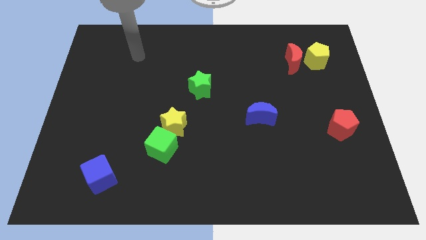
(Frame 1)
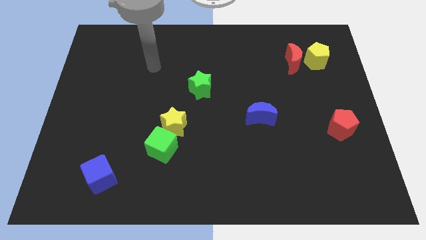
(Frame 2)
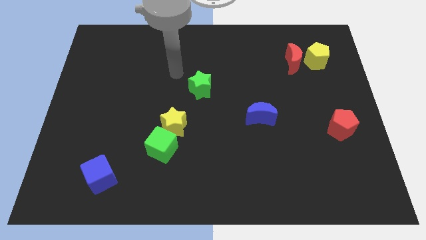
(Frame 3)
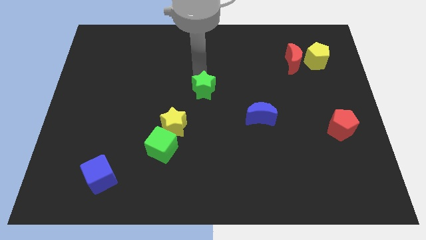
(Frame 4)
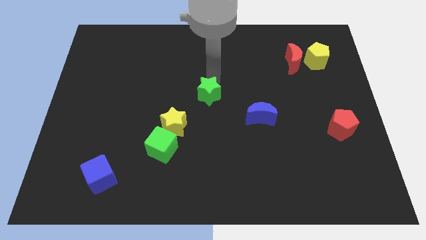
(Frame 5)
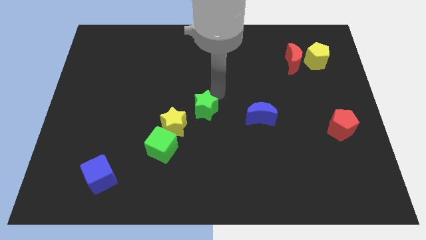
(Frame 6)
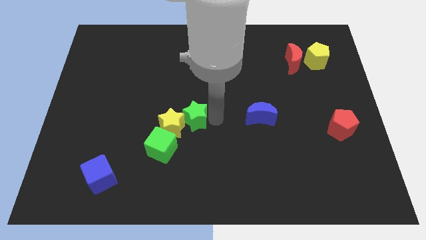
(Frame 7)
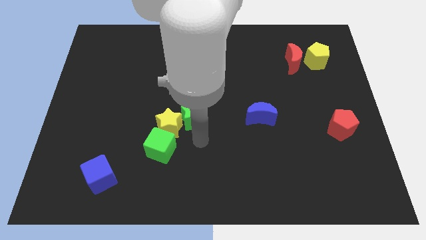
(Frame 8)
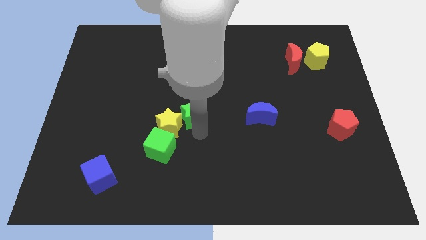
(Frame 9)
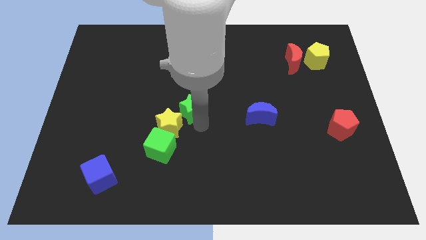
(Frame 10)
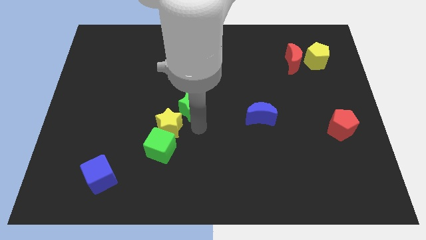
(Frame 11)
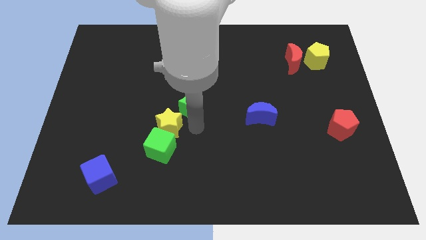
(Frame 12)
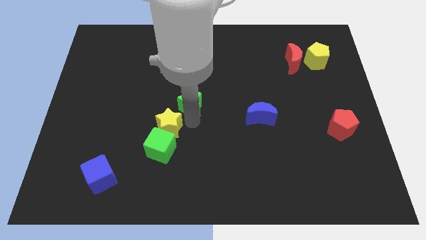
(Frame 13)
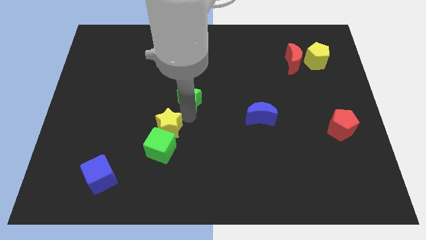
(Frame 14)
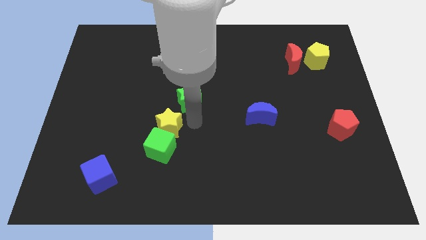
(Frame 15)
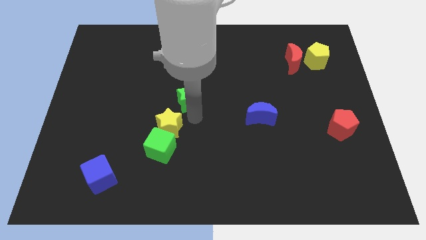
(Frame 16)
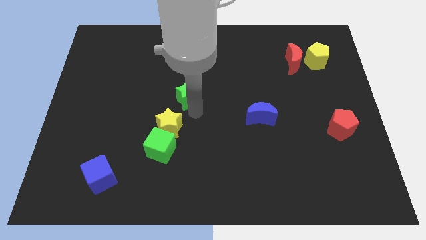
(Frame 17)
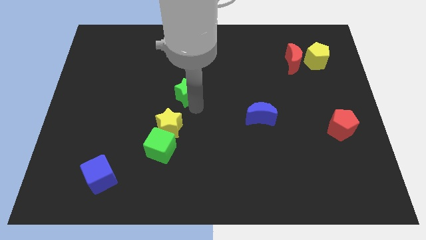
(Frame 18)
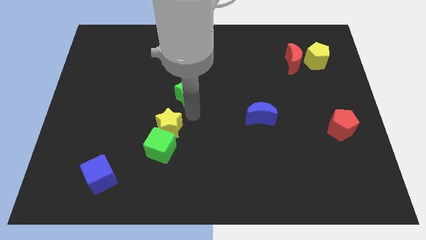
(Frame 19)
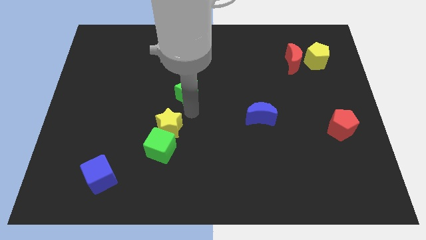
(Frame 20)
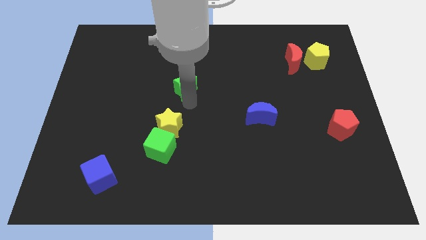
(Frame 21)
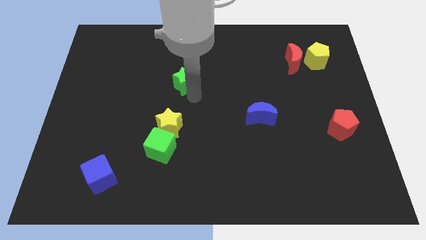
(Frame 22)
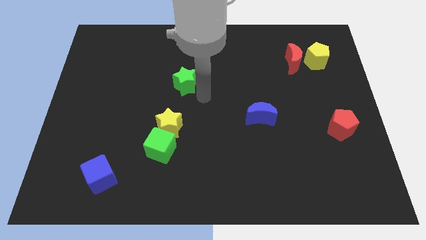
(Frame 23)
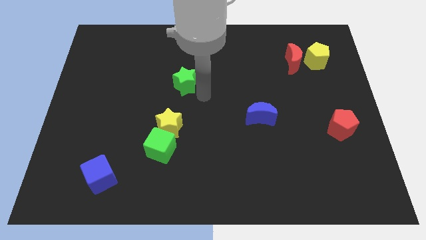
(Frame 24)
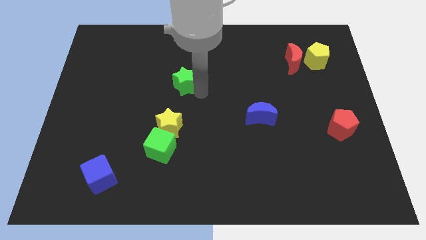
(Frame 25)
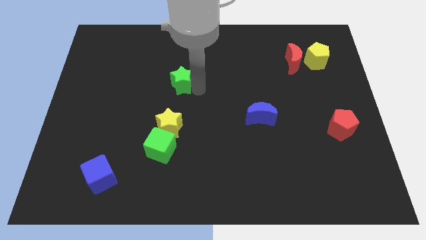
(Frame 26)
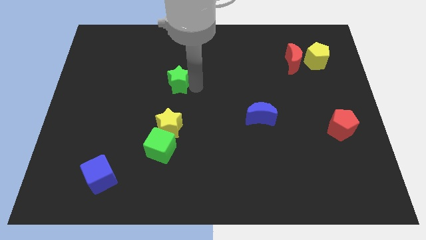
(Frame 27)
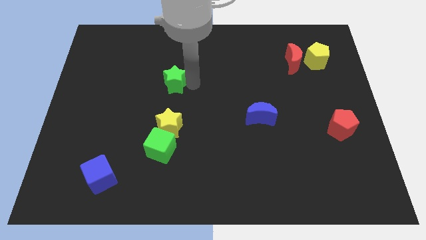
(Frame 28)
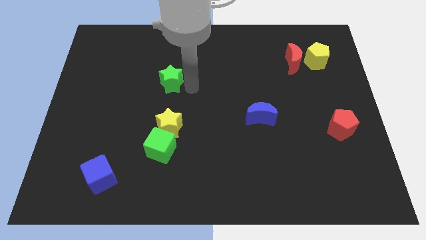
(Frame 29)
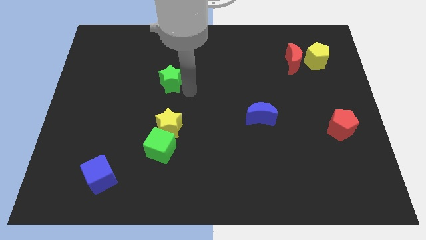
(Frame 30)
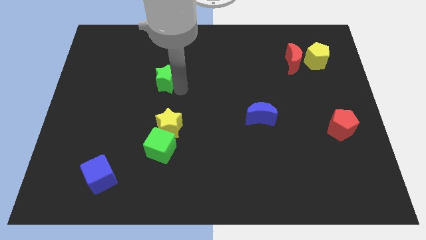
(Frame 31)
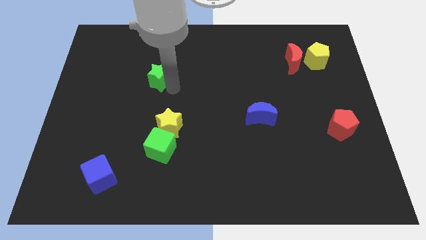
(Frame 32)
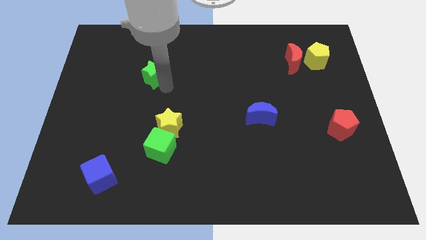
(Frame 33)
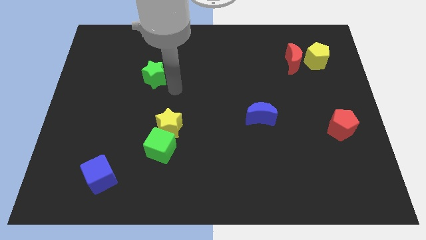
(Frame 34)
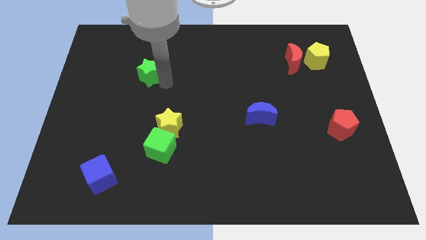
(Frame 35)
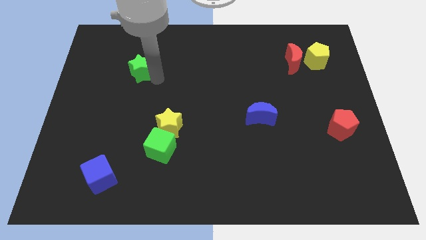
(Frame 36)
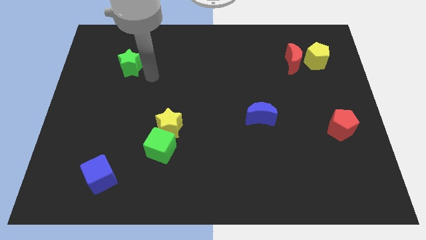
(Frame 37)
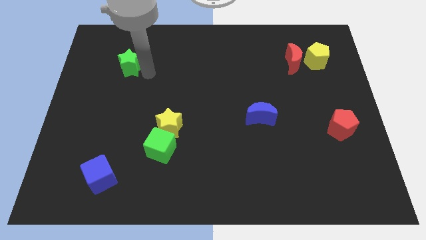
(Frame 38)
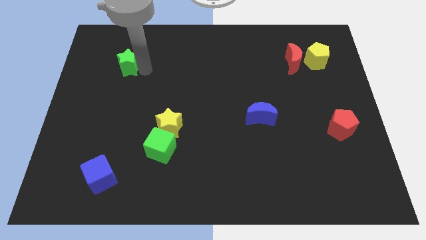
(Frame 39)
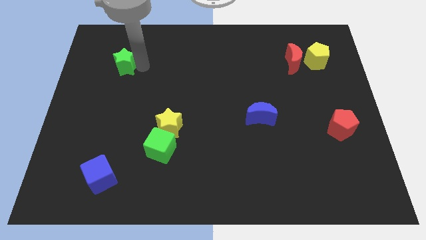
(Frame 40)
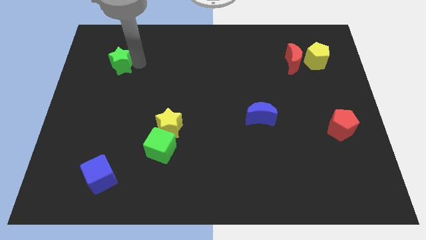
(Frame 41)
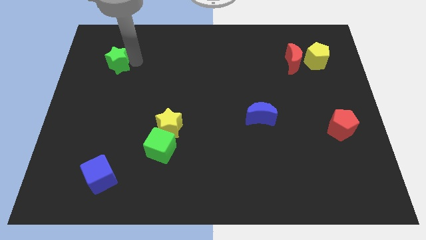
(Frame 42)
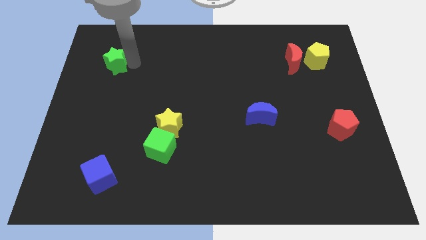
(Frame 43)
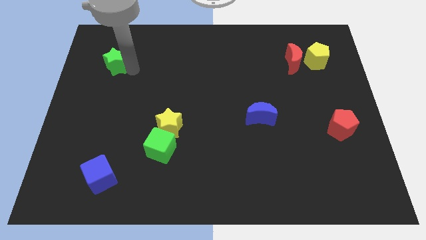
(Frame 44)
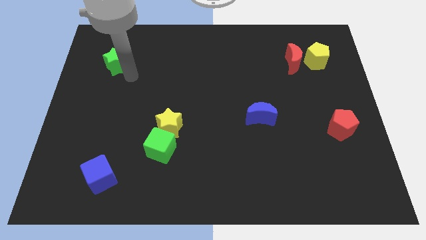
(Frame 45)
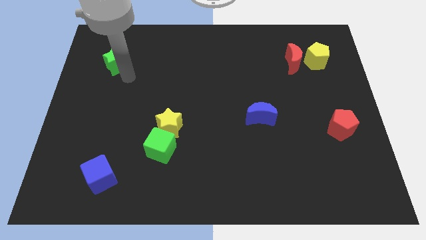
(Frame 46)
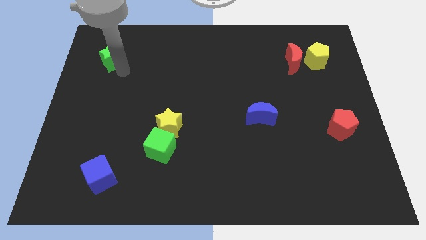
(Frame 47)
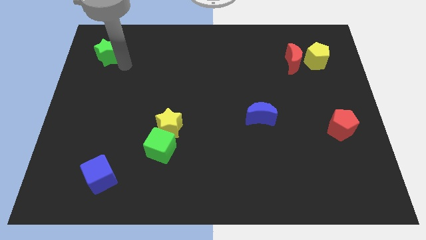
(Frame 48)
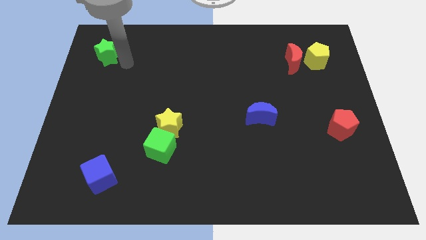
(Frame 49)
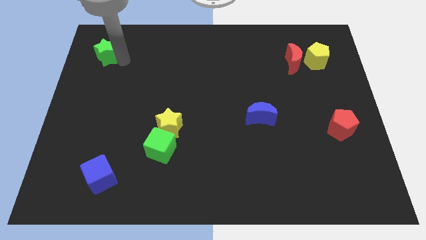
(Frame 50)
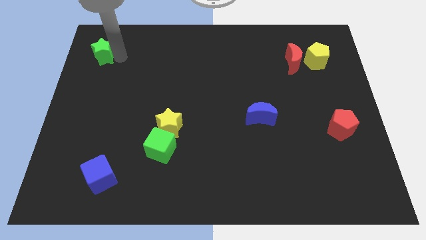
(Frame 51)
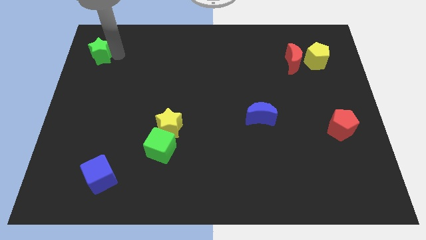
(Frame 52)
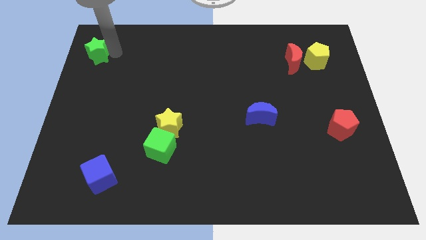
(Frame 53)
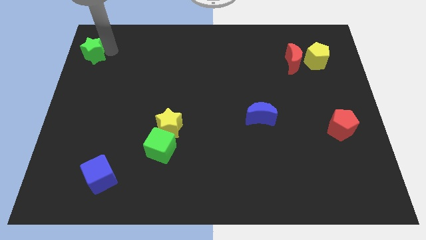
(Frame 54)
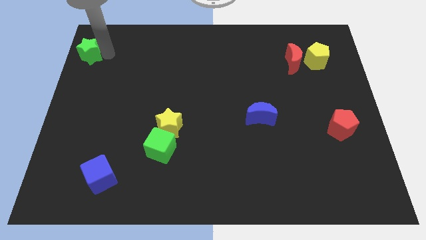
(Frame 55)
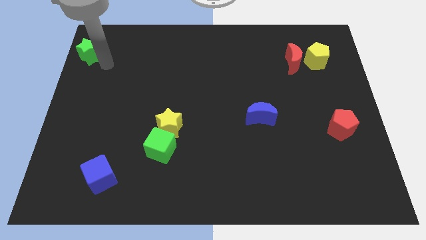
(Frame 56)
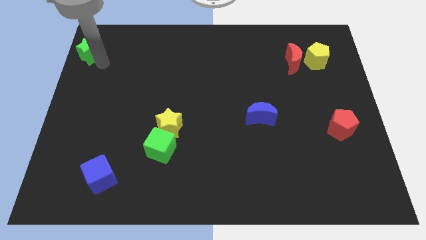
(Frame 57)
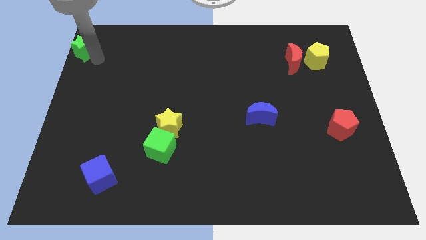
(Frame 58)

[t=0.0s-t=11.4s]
put the green star to the top left

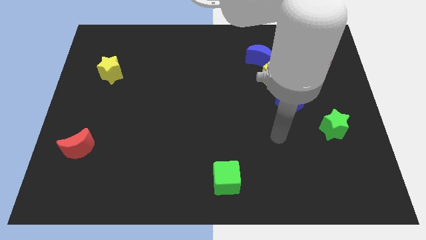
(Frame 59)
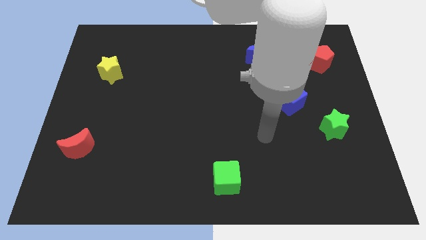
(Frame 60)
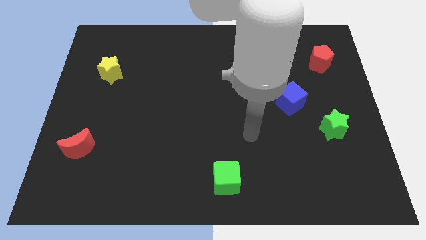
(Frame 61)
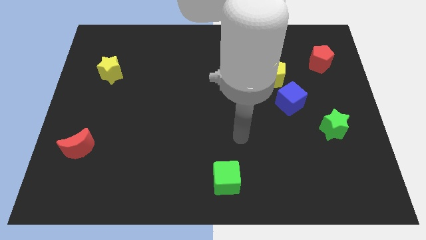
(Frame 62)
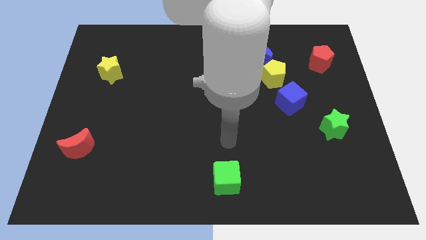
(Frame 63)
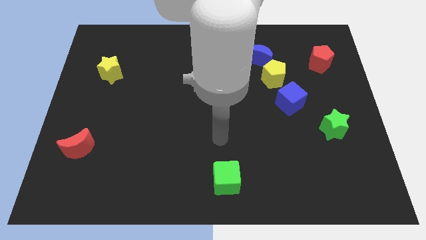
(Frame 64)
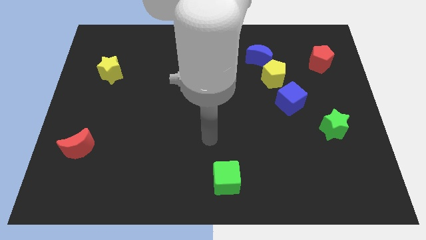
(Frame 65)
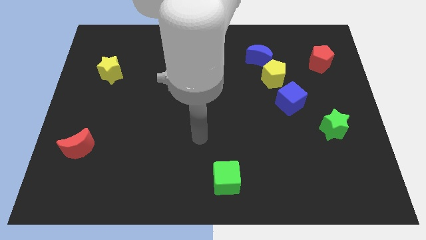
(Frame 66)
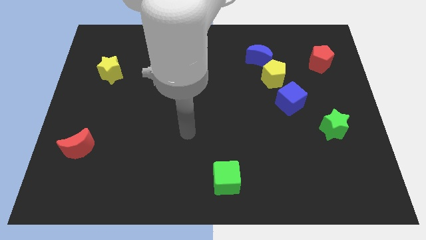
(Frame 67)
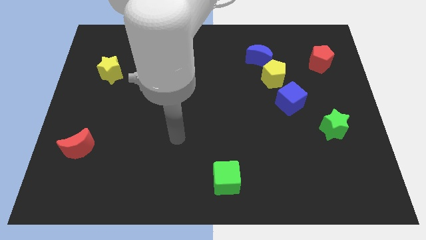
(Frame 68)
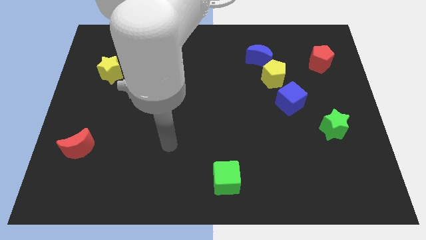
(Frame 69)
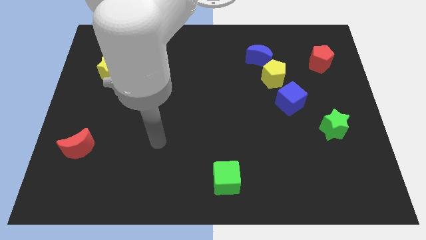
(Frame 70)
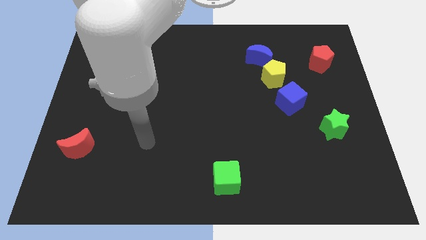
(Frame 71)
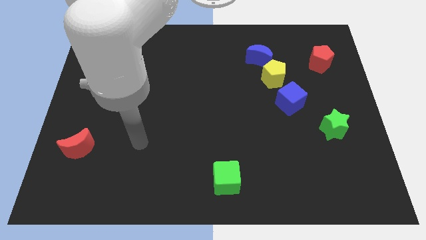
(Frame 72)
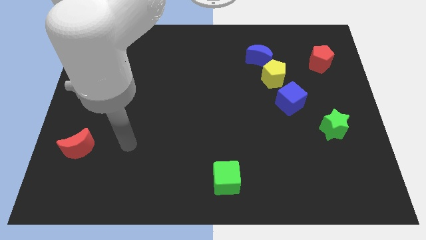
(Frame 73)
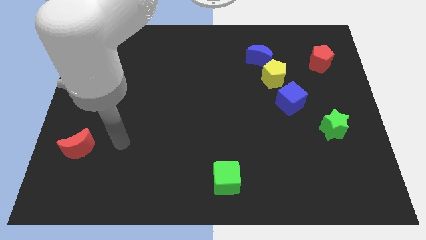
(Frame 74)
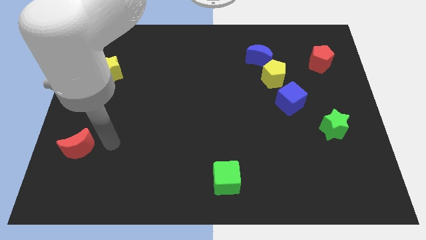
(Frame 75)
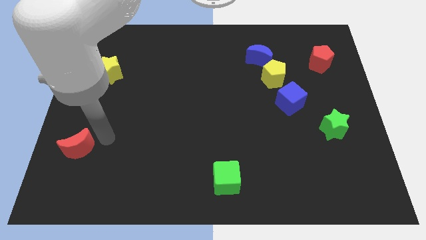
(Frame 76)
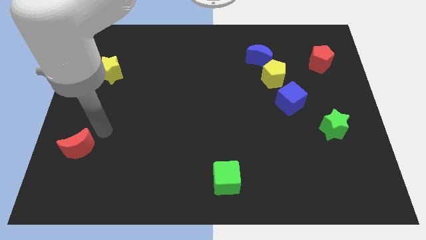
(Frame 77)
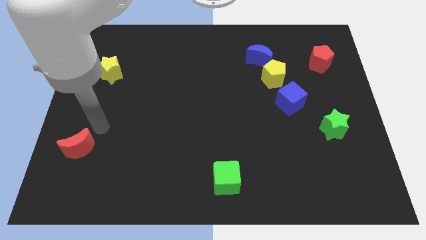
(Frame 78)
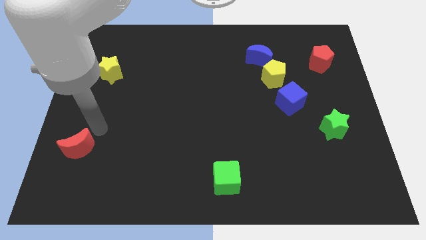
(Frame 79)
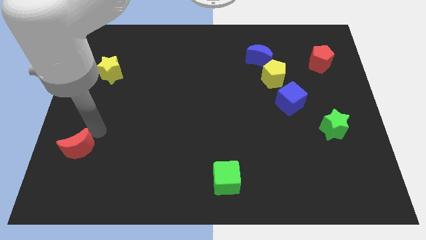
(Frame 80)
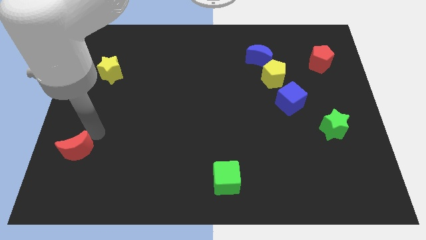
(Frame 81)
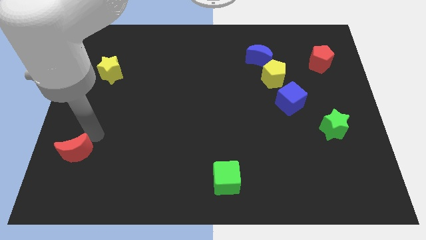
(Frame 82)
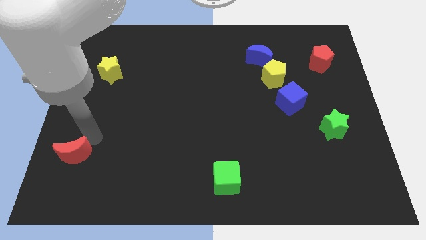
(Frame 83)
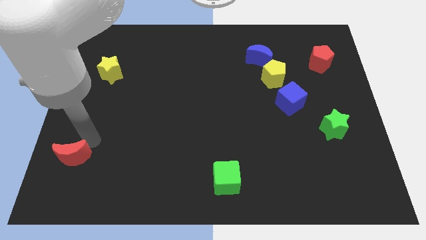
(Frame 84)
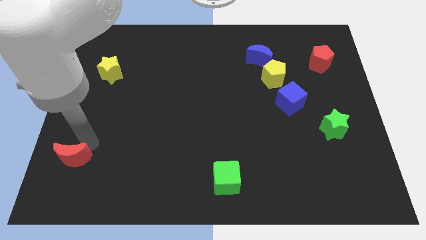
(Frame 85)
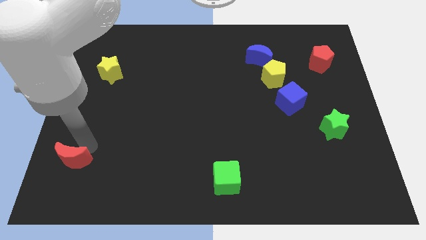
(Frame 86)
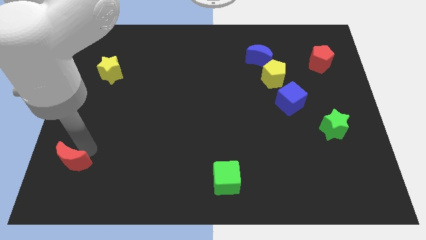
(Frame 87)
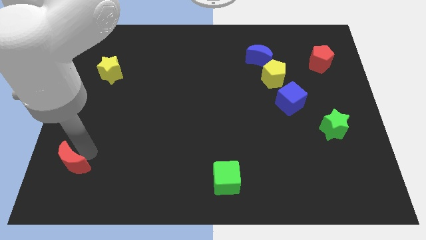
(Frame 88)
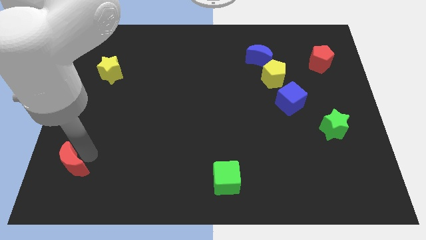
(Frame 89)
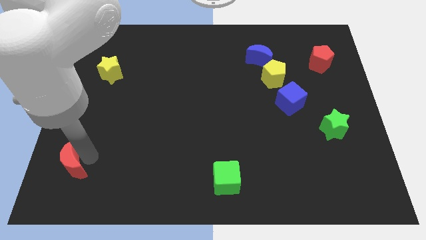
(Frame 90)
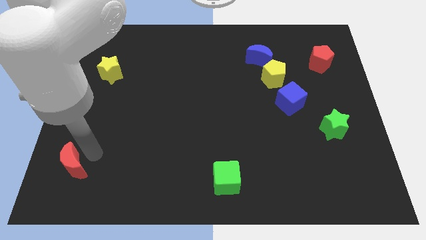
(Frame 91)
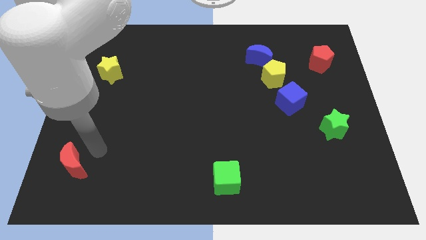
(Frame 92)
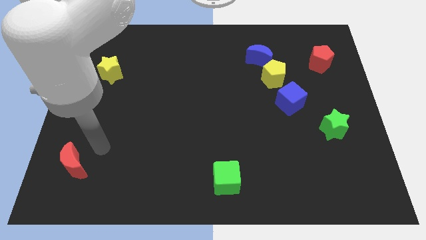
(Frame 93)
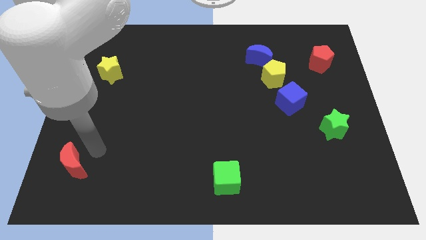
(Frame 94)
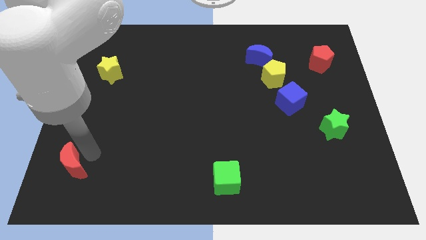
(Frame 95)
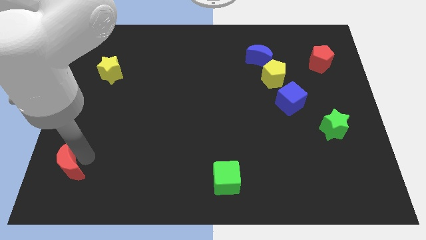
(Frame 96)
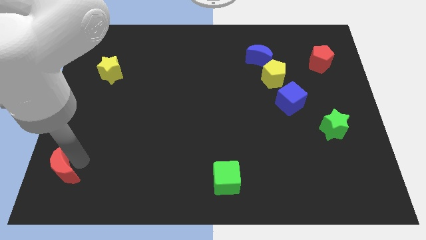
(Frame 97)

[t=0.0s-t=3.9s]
move the red moon to the lower left corner
